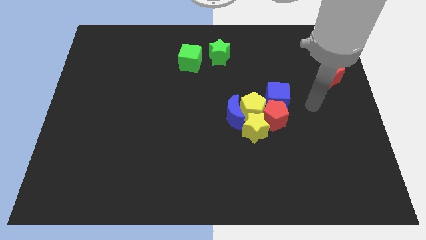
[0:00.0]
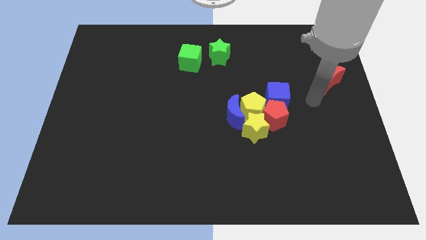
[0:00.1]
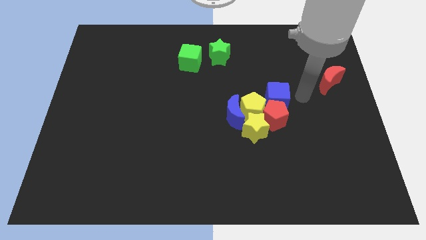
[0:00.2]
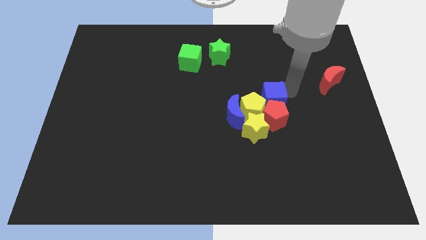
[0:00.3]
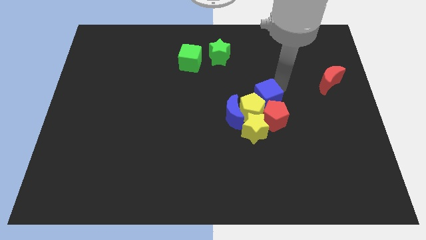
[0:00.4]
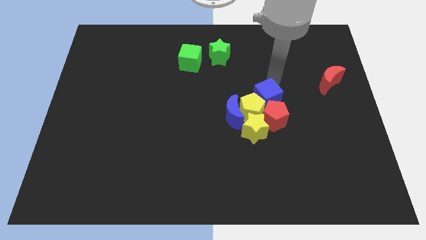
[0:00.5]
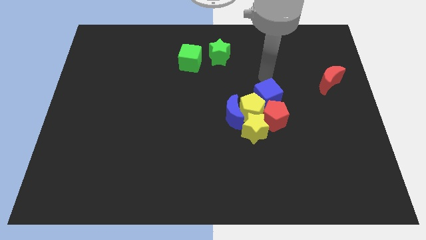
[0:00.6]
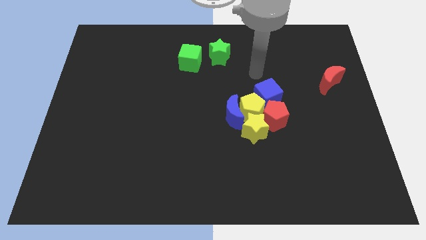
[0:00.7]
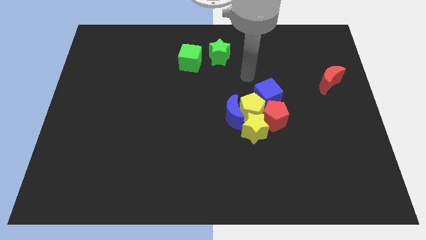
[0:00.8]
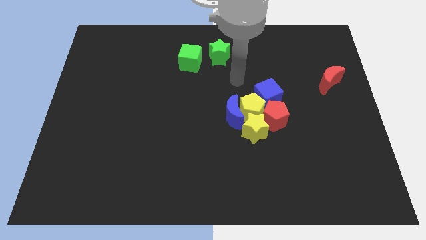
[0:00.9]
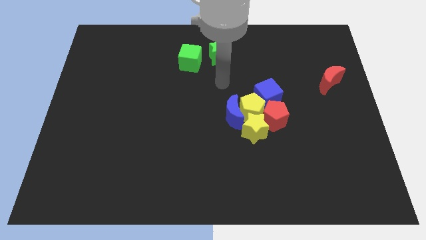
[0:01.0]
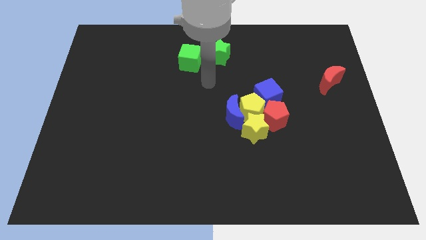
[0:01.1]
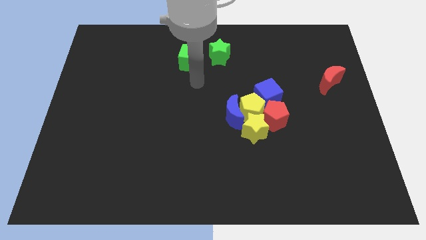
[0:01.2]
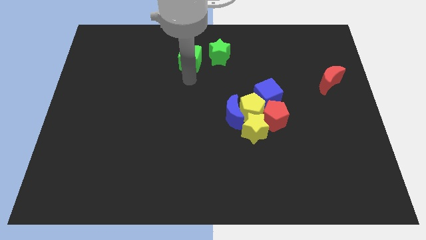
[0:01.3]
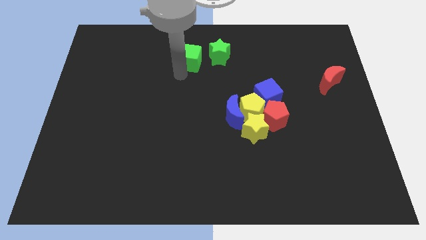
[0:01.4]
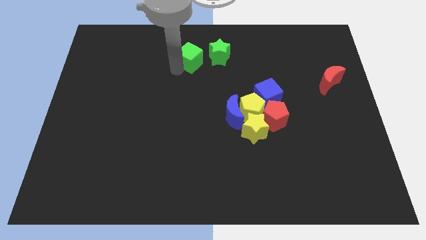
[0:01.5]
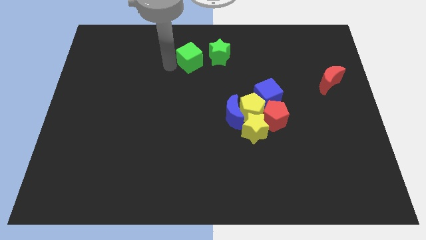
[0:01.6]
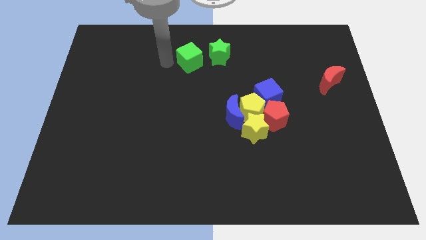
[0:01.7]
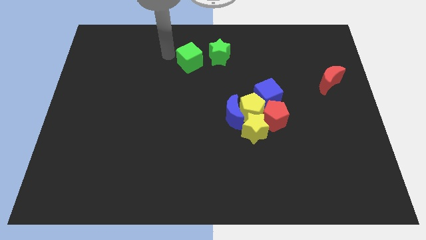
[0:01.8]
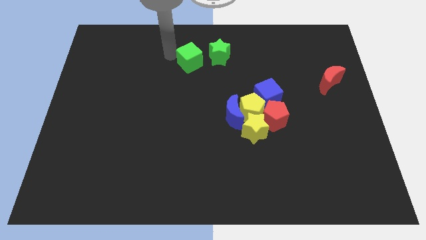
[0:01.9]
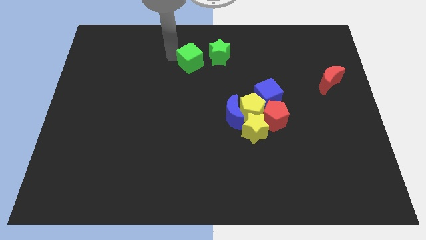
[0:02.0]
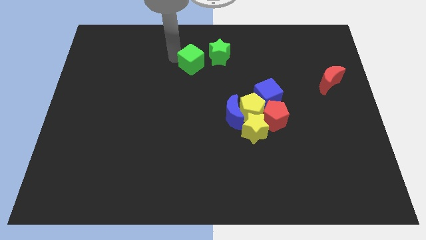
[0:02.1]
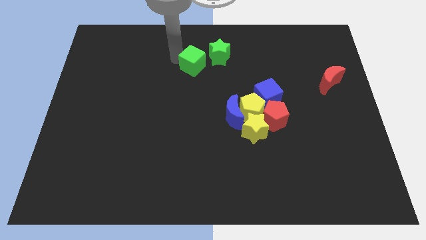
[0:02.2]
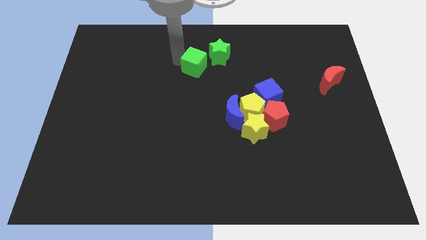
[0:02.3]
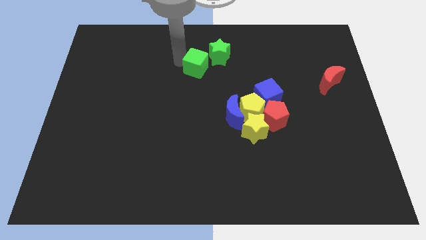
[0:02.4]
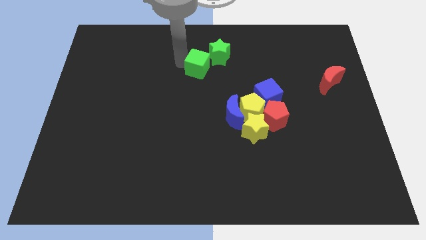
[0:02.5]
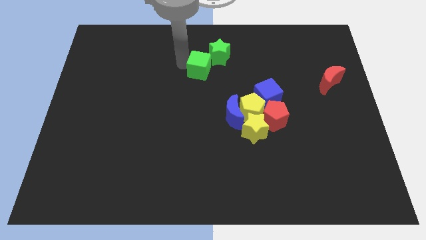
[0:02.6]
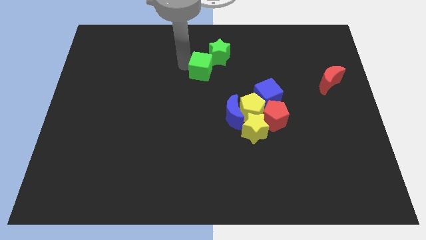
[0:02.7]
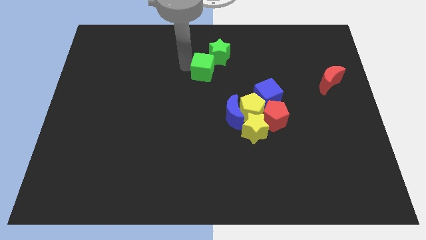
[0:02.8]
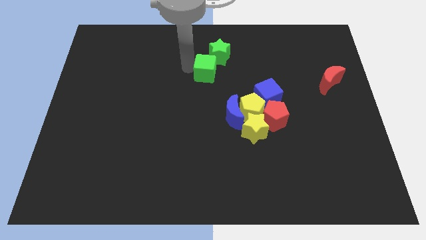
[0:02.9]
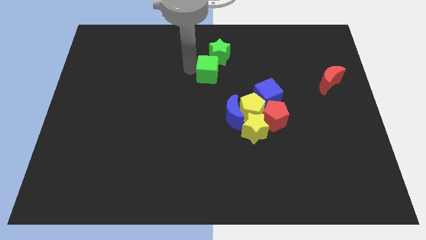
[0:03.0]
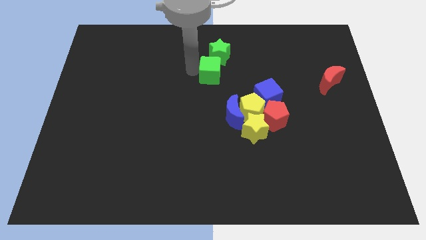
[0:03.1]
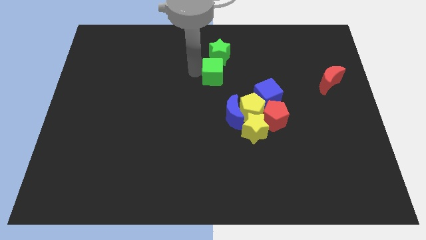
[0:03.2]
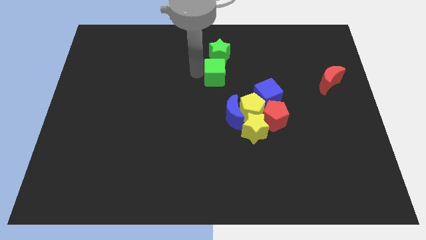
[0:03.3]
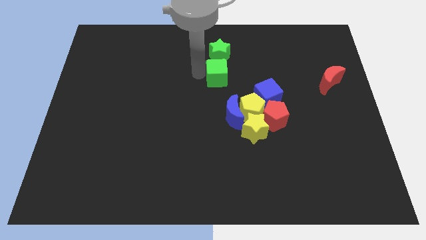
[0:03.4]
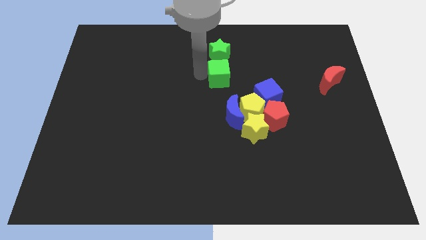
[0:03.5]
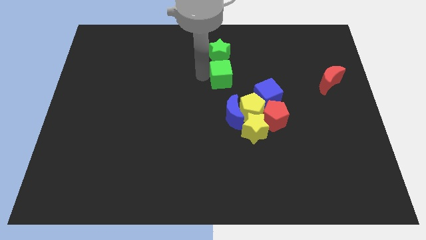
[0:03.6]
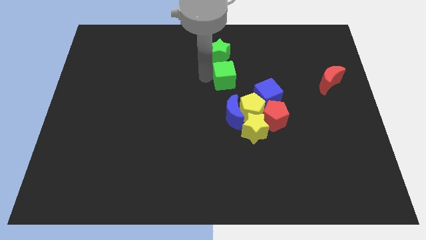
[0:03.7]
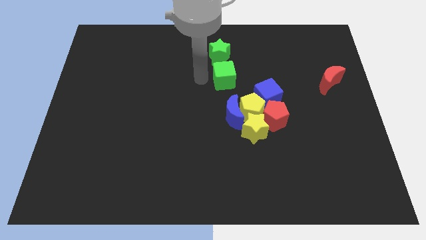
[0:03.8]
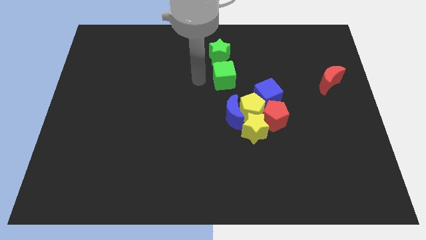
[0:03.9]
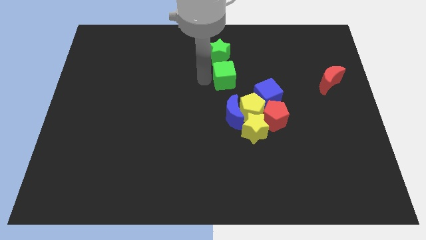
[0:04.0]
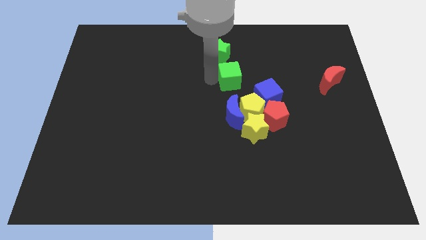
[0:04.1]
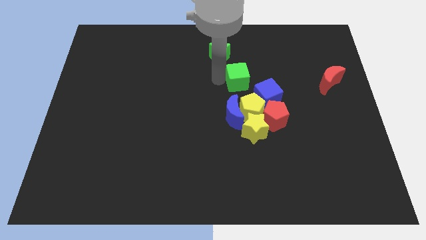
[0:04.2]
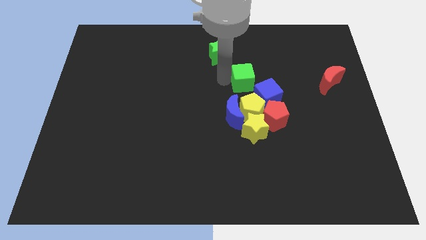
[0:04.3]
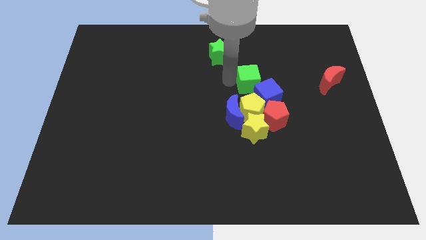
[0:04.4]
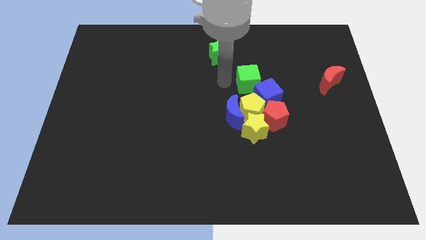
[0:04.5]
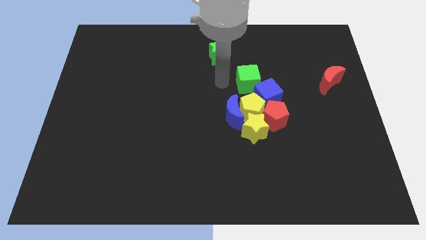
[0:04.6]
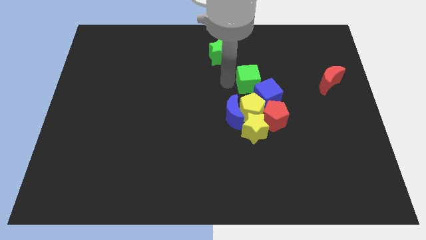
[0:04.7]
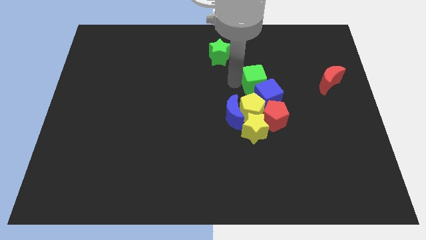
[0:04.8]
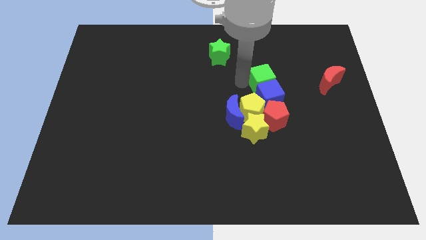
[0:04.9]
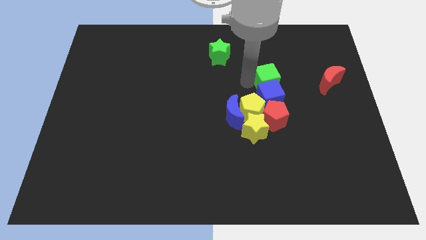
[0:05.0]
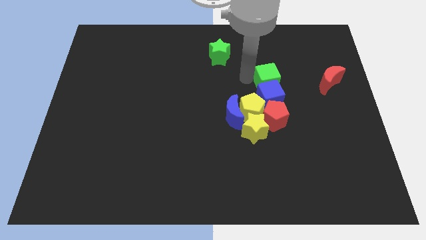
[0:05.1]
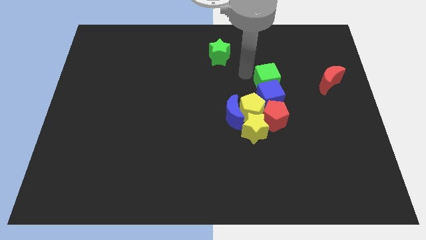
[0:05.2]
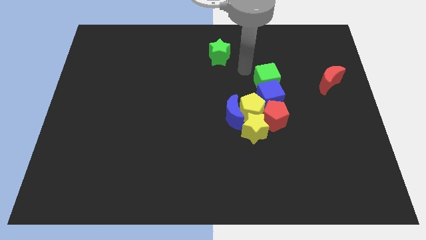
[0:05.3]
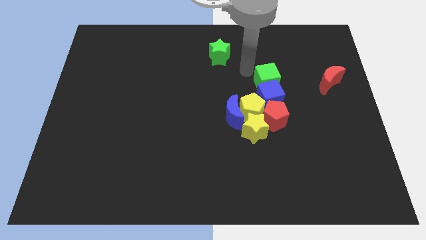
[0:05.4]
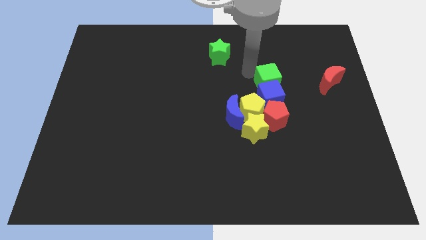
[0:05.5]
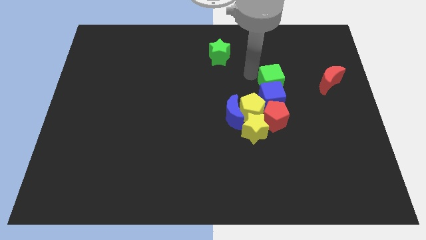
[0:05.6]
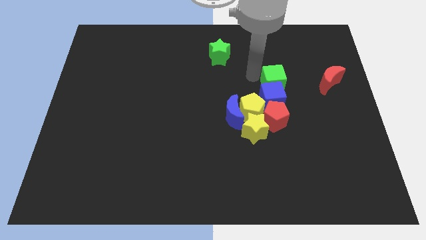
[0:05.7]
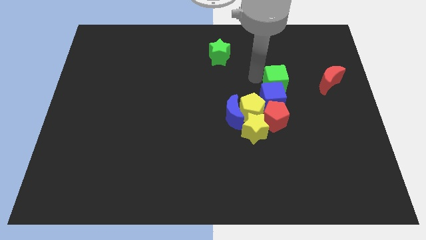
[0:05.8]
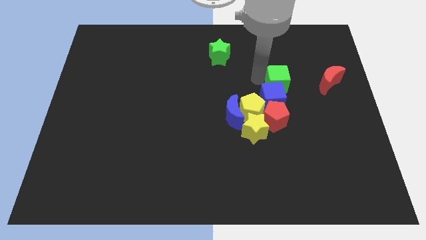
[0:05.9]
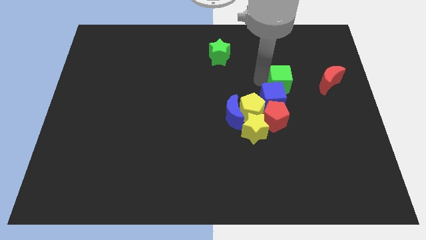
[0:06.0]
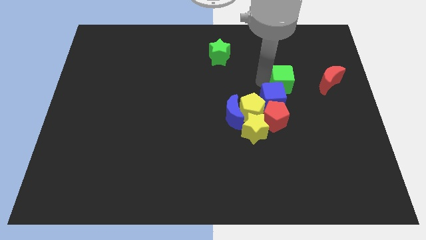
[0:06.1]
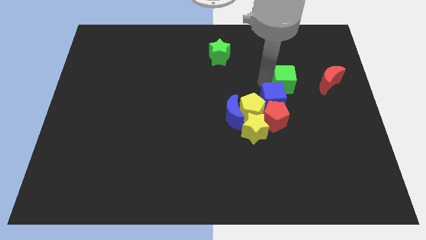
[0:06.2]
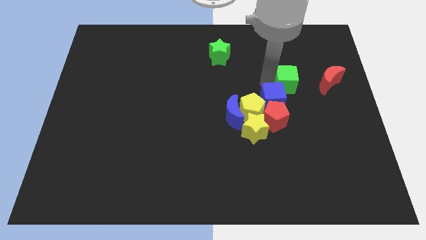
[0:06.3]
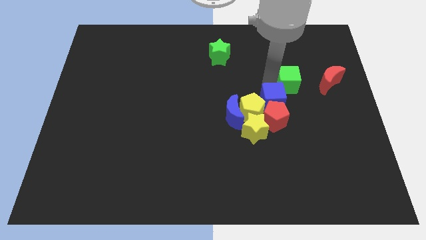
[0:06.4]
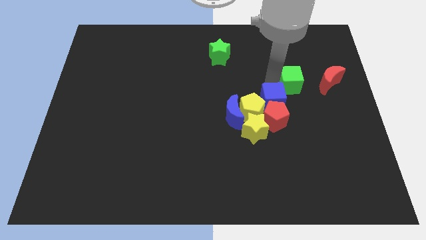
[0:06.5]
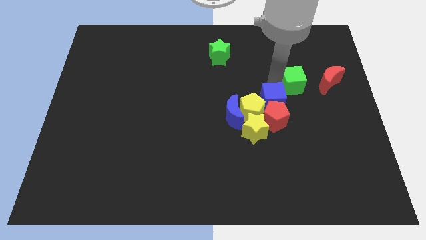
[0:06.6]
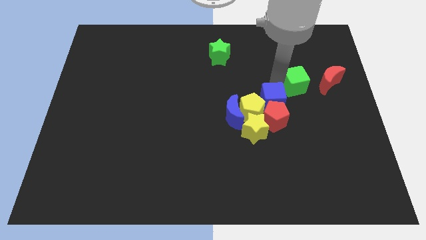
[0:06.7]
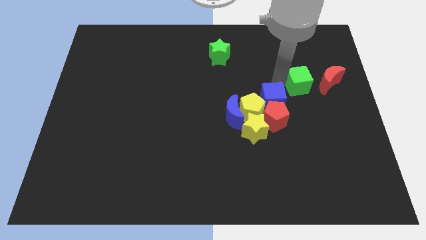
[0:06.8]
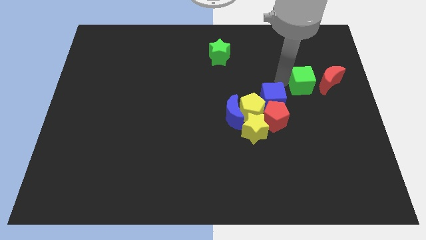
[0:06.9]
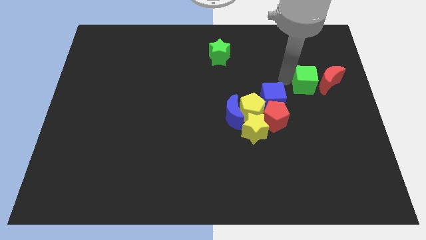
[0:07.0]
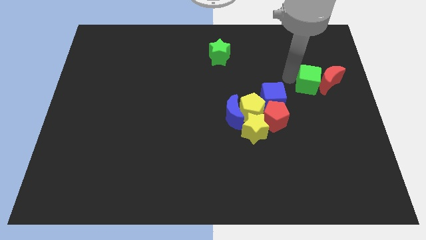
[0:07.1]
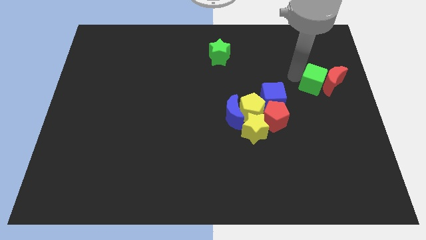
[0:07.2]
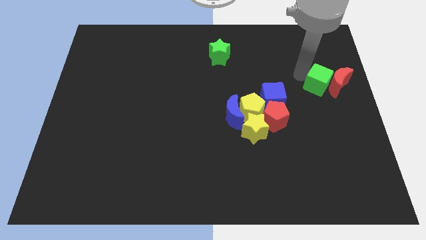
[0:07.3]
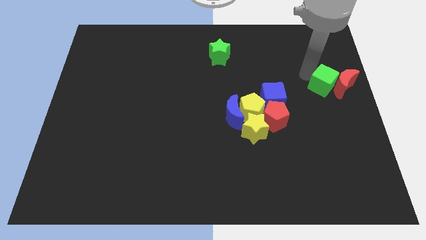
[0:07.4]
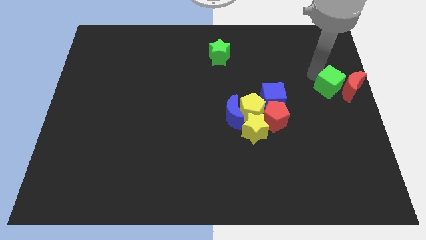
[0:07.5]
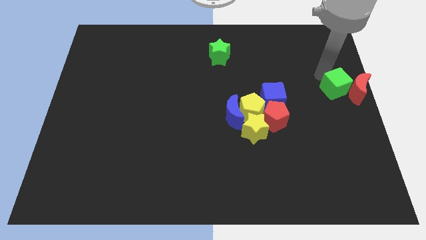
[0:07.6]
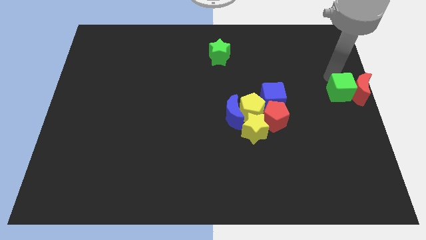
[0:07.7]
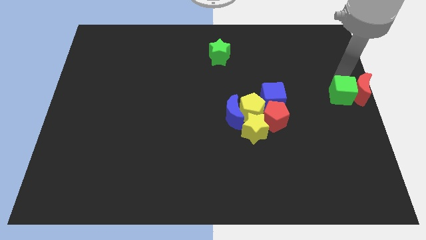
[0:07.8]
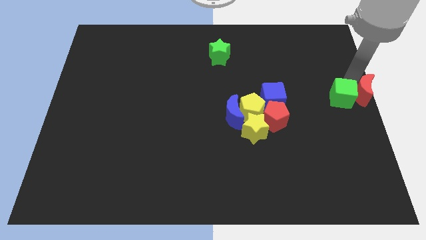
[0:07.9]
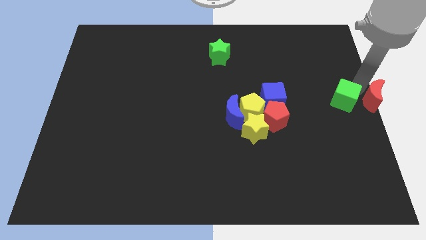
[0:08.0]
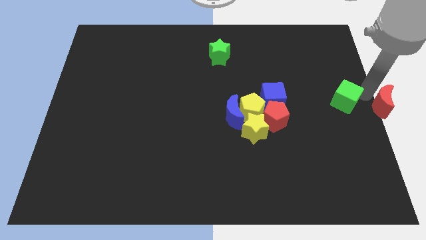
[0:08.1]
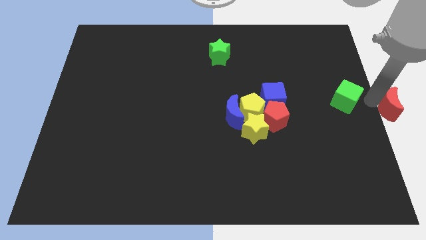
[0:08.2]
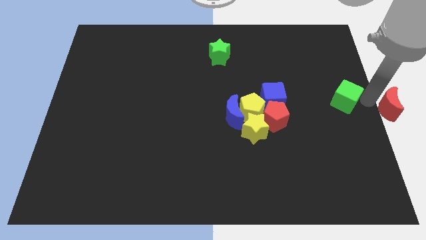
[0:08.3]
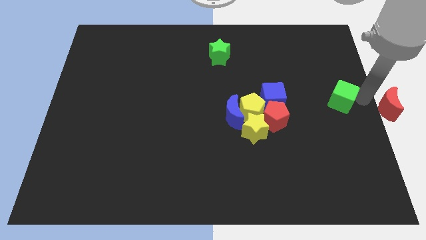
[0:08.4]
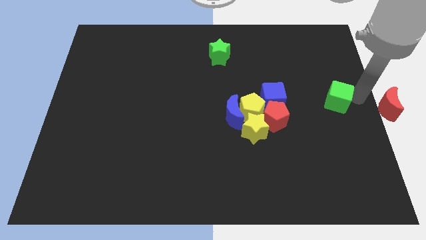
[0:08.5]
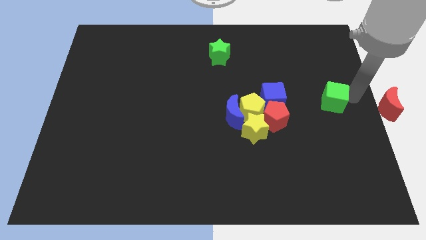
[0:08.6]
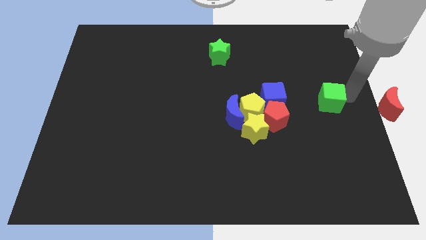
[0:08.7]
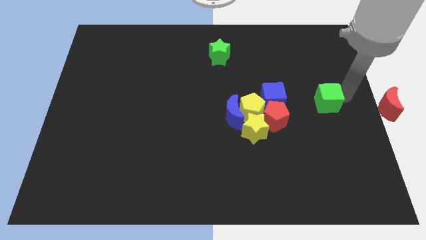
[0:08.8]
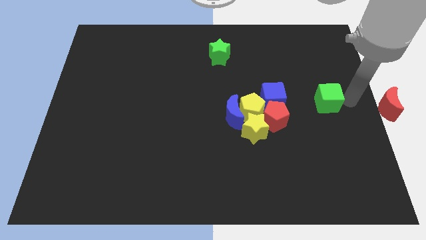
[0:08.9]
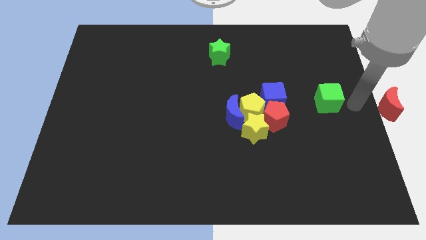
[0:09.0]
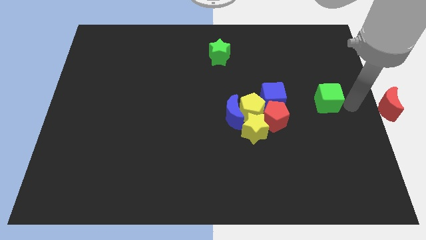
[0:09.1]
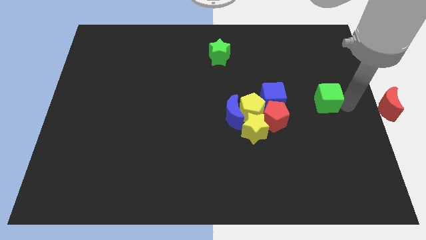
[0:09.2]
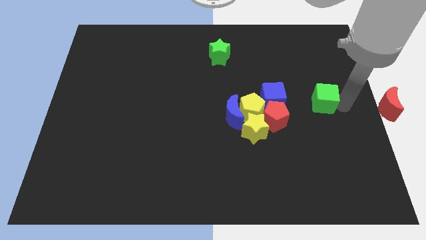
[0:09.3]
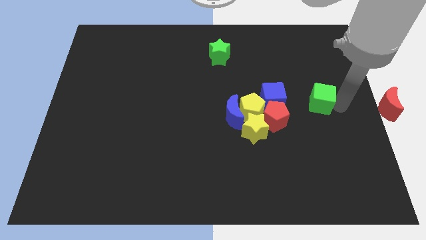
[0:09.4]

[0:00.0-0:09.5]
slide the green cube down and then to the right
